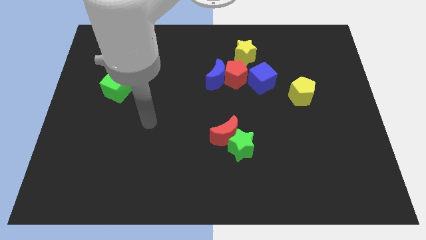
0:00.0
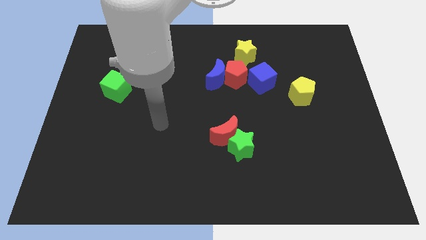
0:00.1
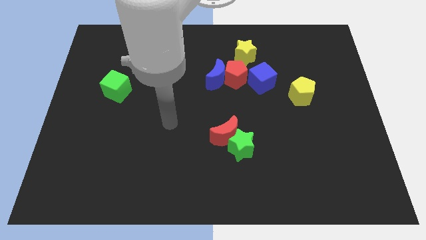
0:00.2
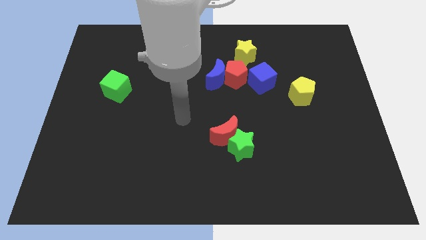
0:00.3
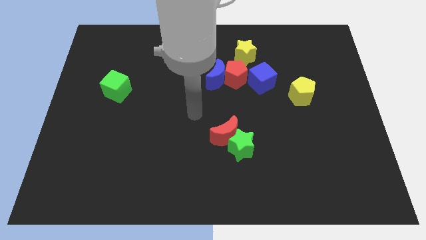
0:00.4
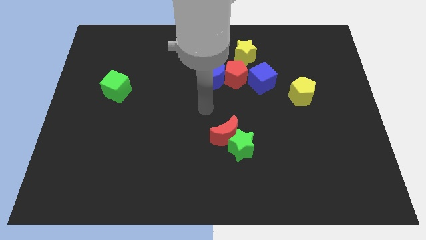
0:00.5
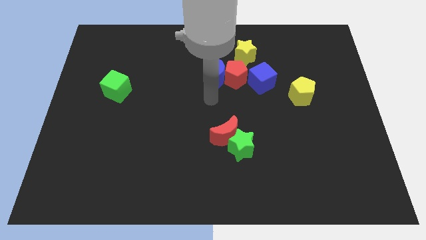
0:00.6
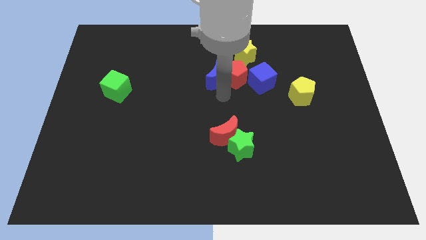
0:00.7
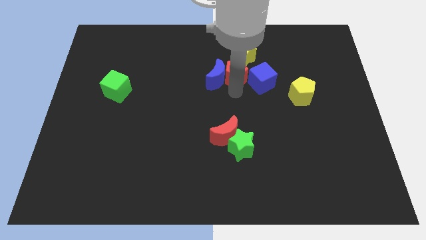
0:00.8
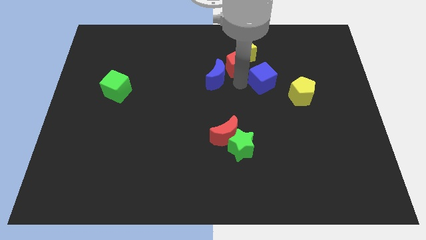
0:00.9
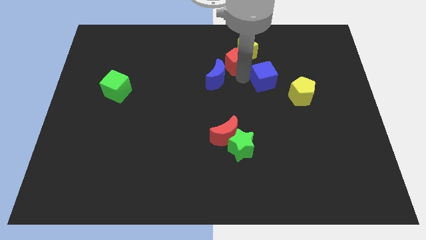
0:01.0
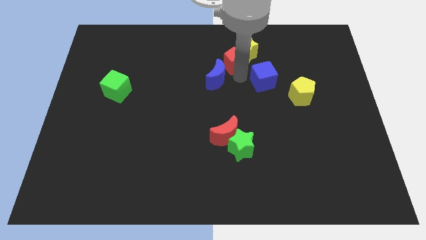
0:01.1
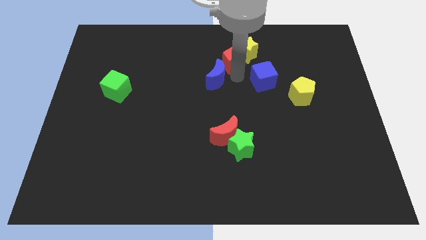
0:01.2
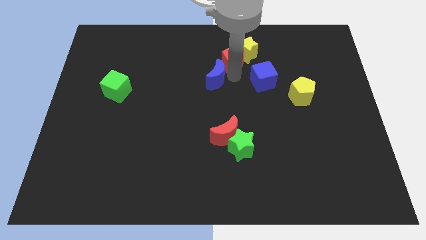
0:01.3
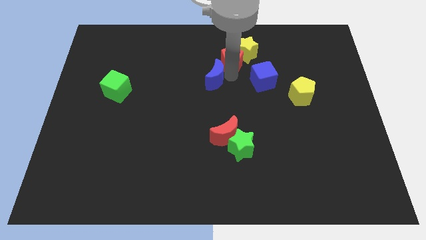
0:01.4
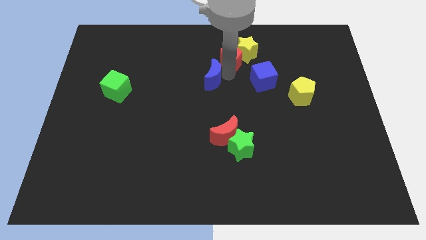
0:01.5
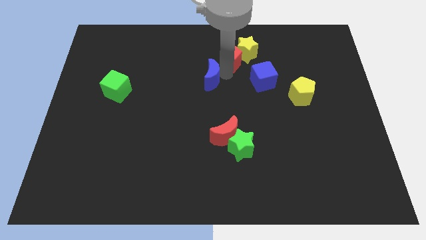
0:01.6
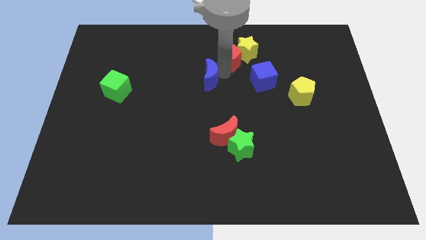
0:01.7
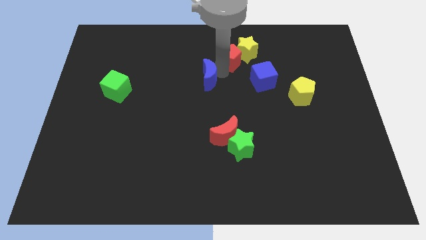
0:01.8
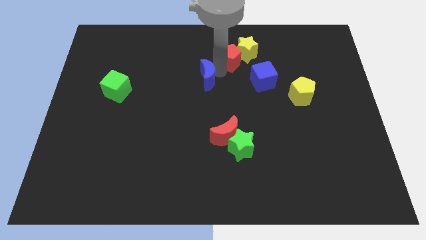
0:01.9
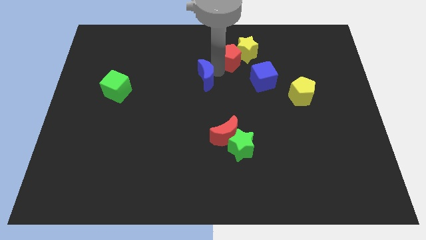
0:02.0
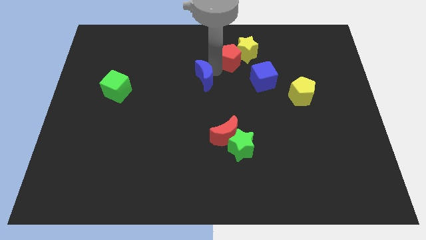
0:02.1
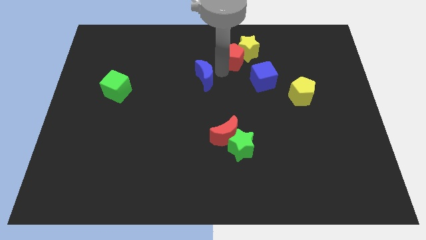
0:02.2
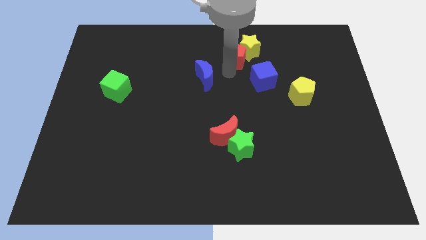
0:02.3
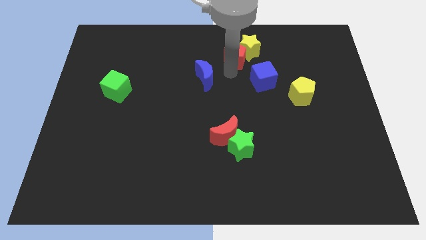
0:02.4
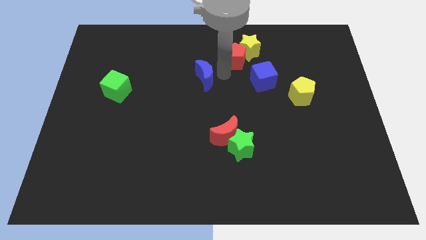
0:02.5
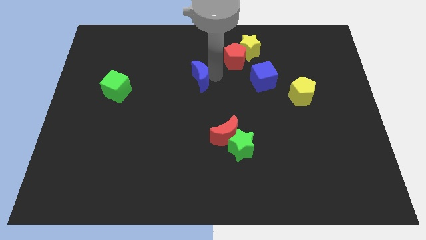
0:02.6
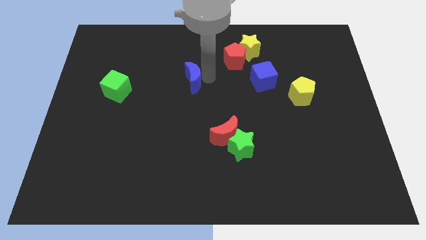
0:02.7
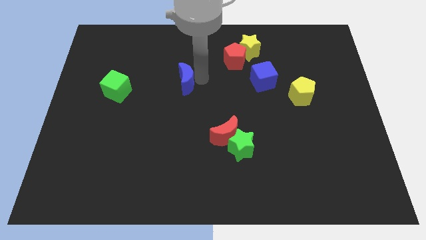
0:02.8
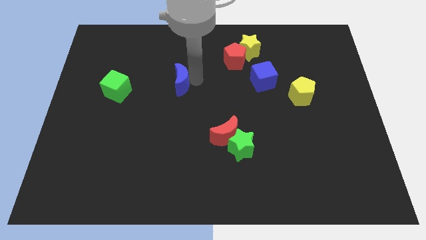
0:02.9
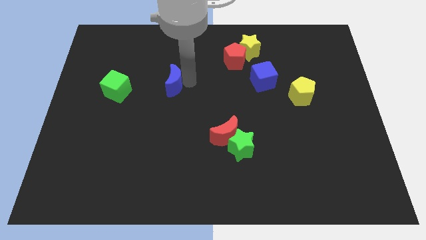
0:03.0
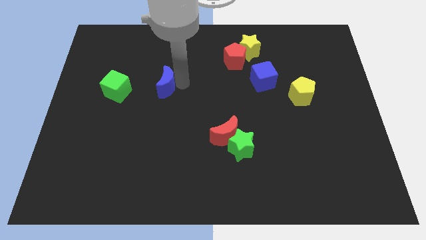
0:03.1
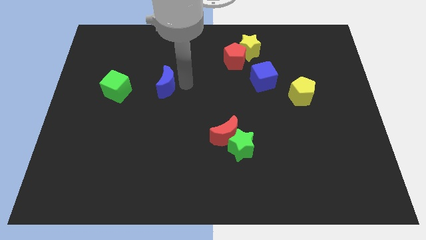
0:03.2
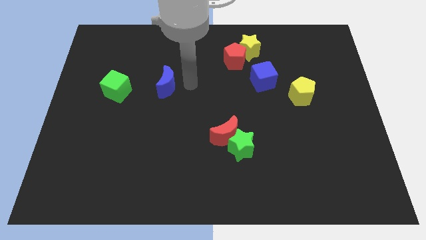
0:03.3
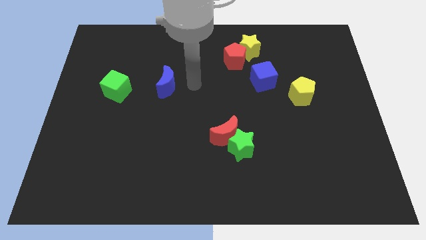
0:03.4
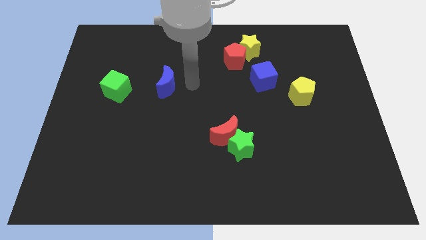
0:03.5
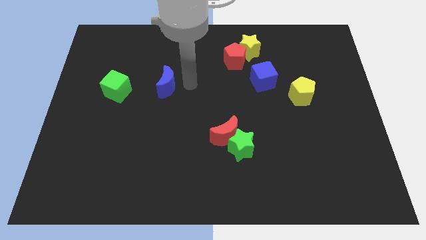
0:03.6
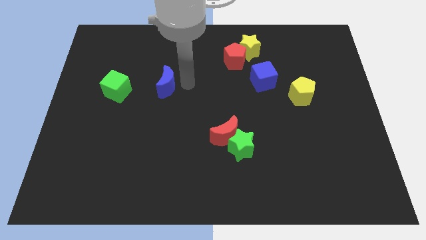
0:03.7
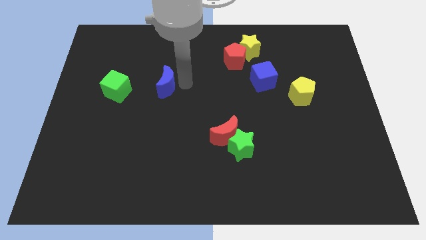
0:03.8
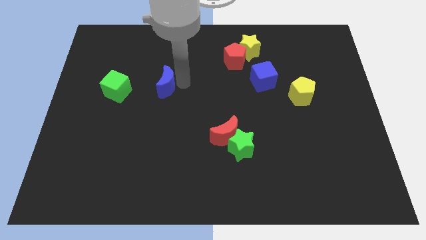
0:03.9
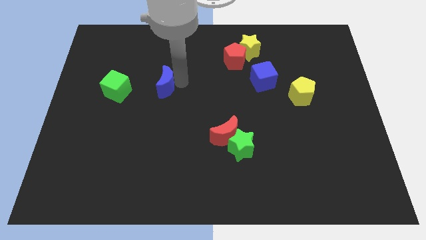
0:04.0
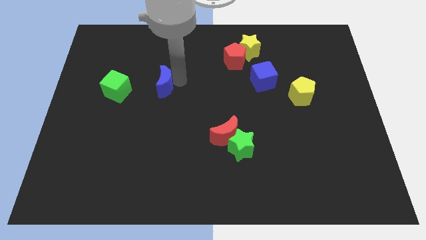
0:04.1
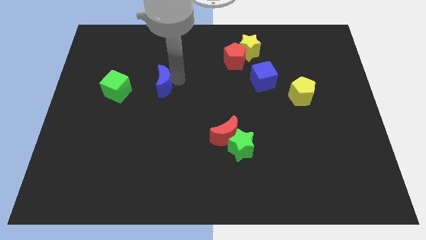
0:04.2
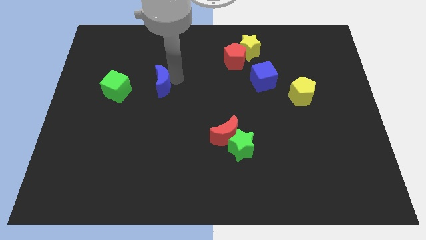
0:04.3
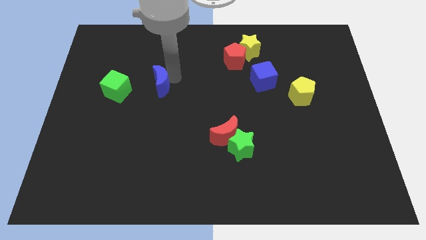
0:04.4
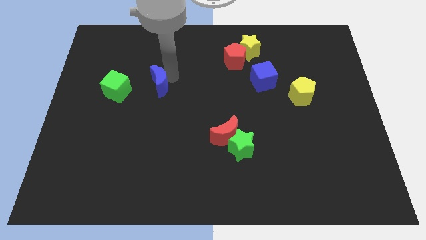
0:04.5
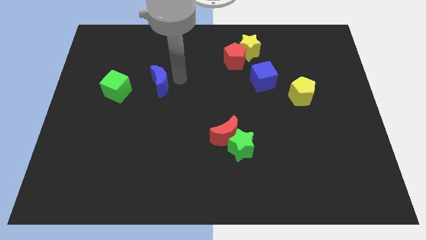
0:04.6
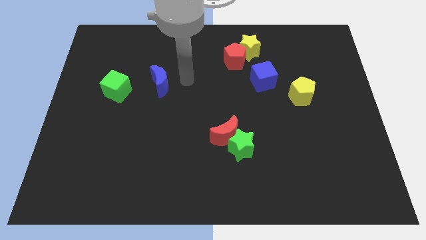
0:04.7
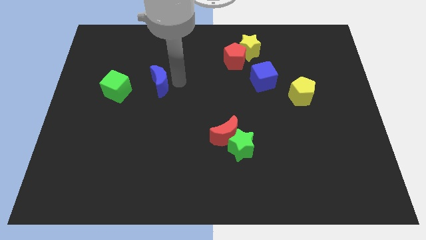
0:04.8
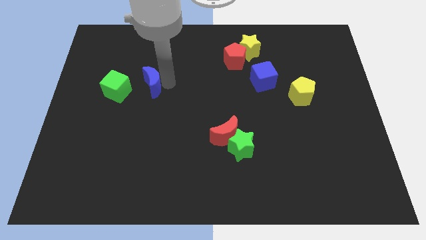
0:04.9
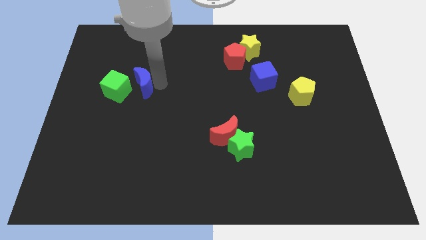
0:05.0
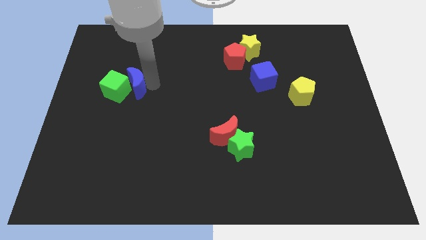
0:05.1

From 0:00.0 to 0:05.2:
put the blue moon close to the green cube

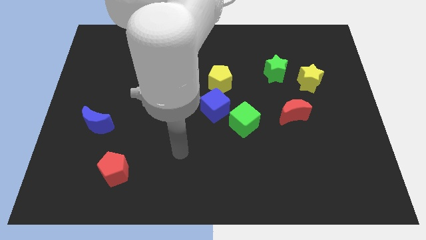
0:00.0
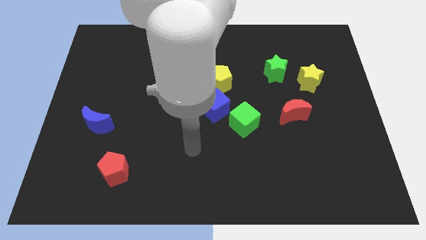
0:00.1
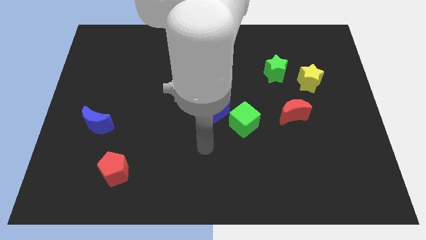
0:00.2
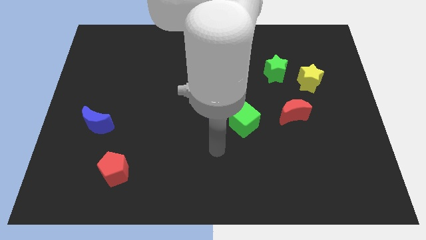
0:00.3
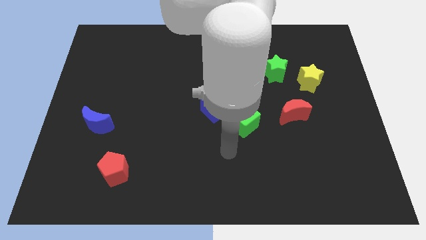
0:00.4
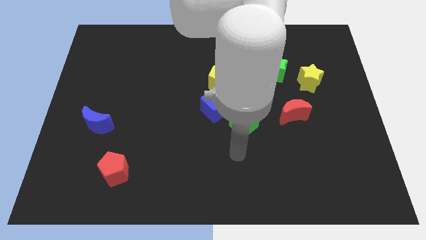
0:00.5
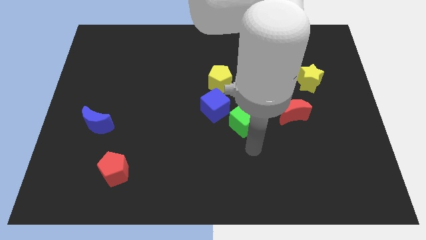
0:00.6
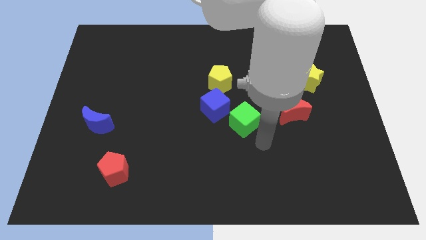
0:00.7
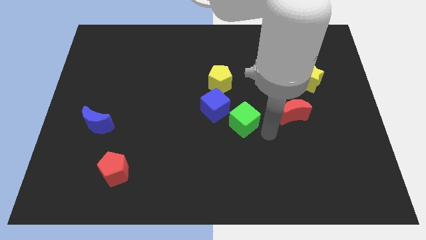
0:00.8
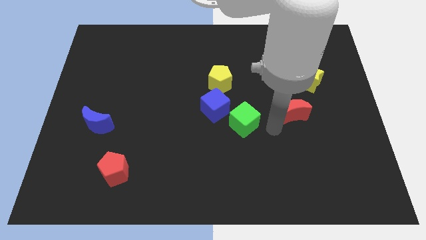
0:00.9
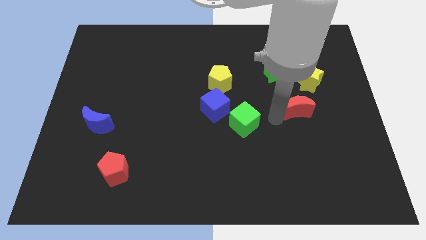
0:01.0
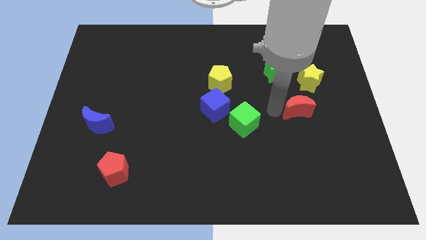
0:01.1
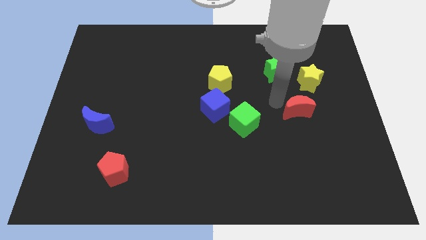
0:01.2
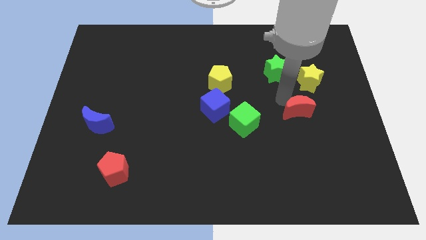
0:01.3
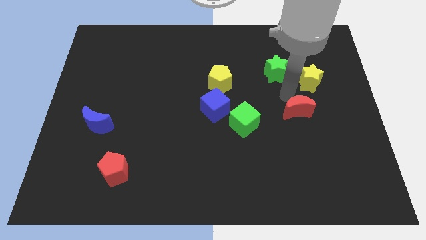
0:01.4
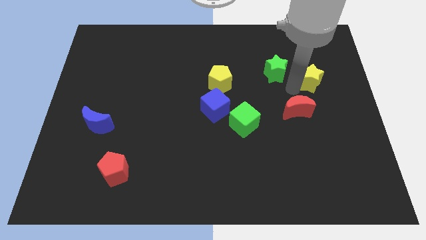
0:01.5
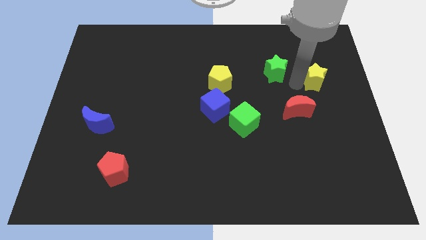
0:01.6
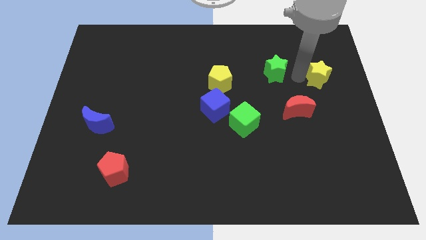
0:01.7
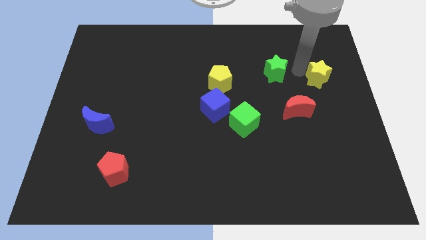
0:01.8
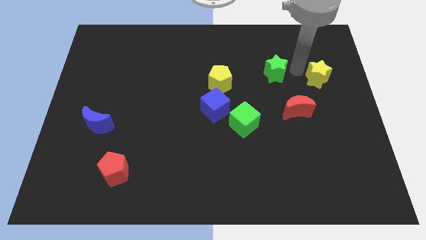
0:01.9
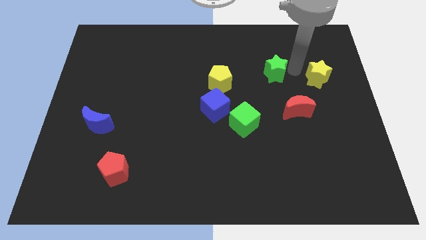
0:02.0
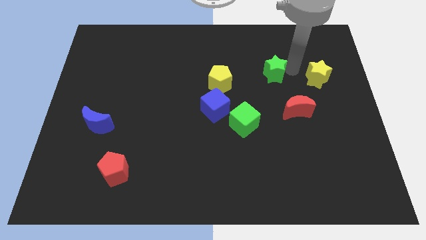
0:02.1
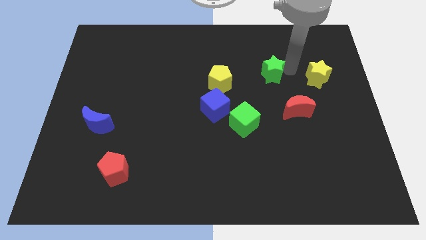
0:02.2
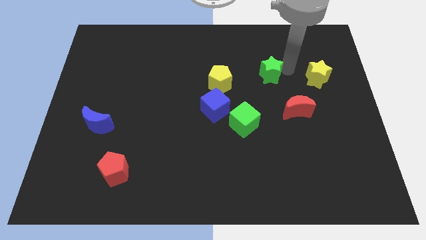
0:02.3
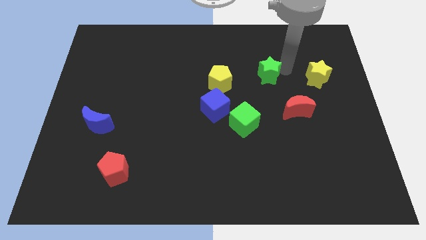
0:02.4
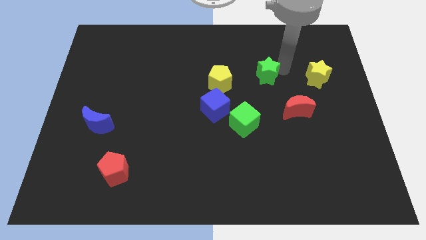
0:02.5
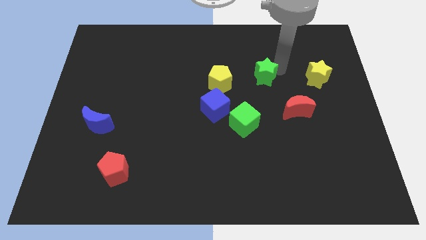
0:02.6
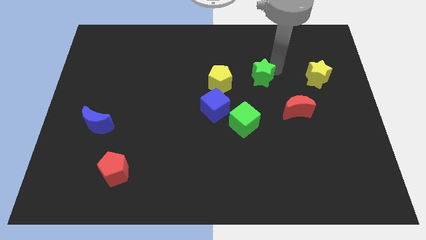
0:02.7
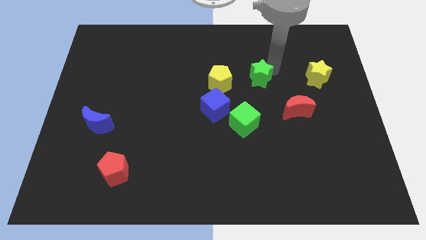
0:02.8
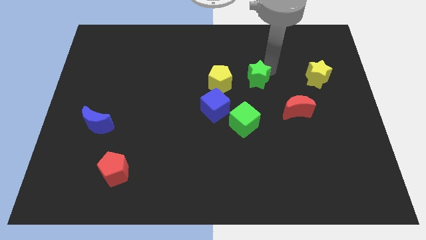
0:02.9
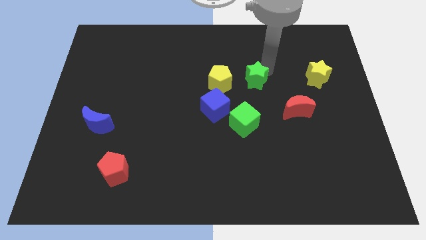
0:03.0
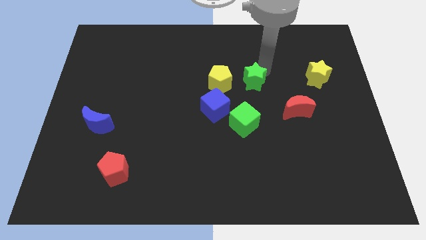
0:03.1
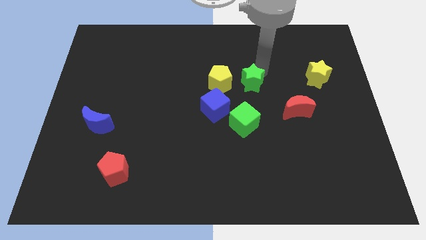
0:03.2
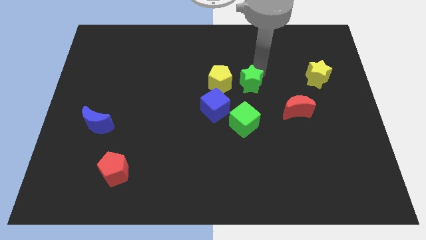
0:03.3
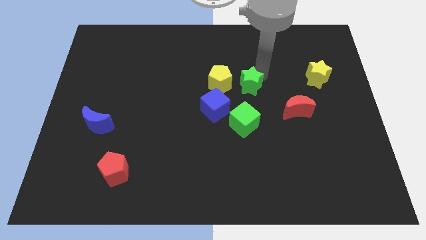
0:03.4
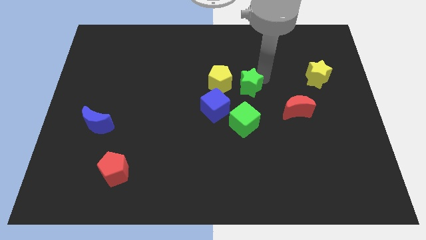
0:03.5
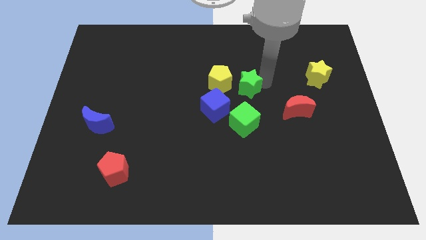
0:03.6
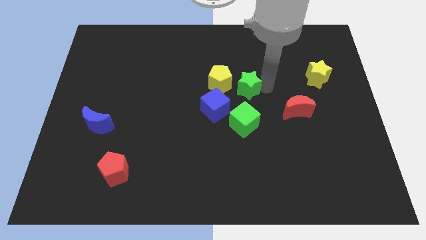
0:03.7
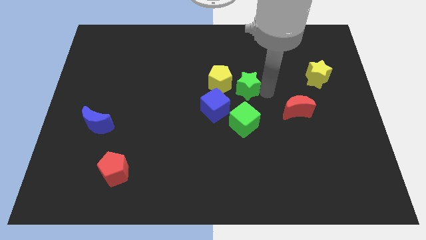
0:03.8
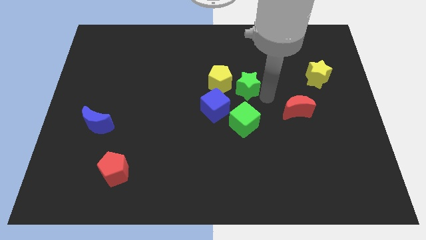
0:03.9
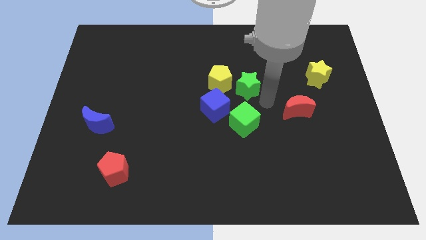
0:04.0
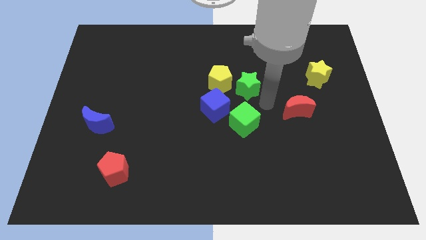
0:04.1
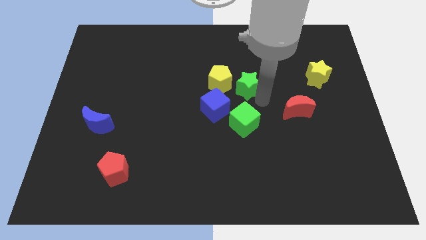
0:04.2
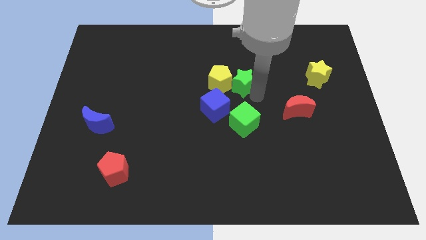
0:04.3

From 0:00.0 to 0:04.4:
push the green star to the yellow pentagon
